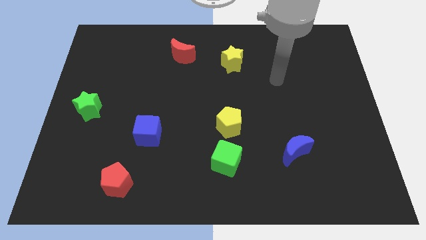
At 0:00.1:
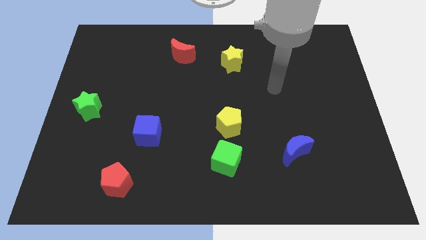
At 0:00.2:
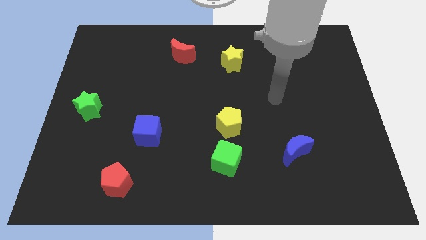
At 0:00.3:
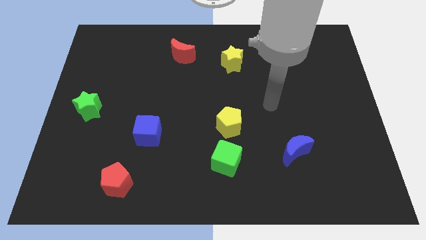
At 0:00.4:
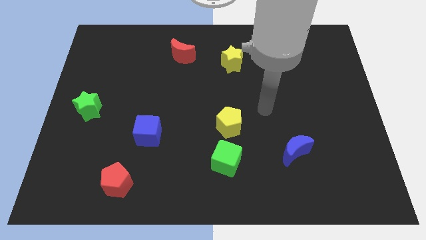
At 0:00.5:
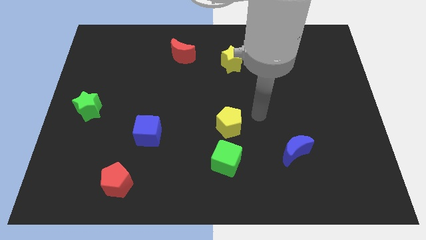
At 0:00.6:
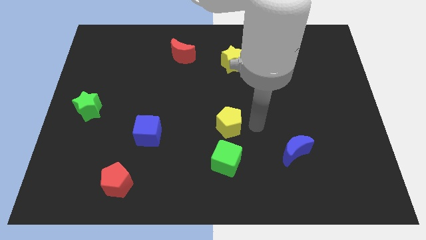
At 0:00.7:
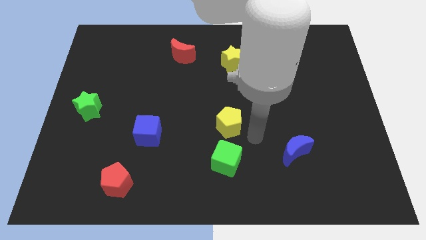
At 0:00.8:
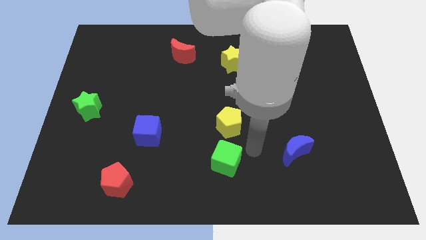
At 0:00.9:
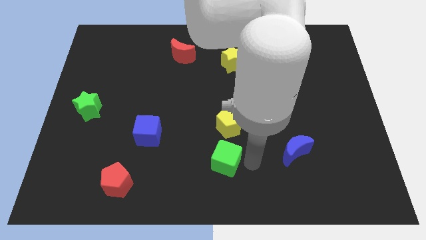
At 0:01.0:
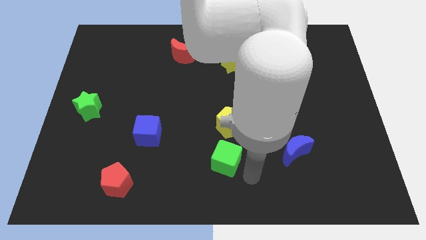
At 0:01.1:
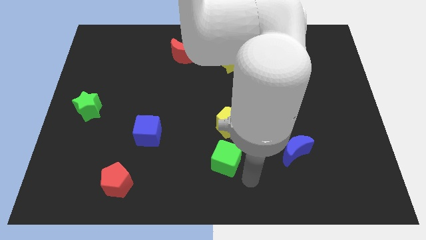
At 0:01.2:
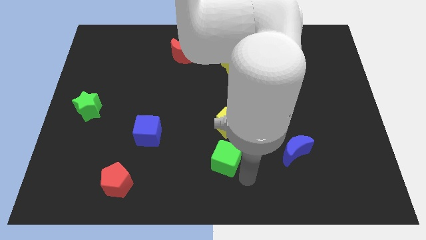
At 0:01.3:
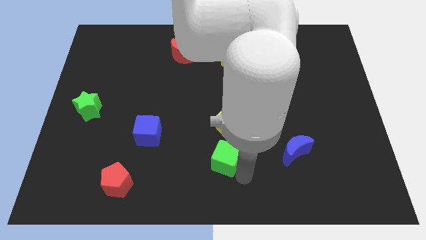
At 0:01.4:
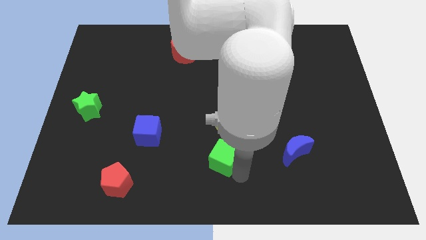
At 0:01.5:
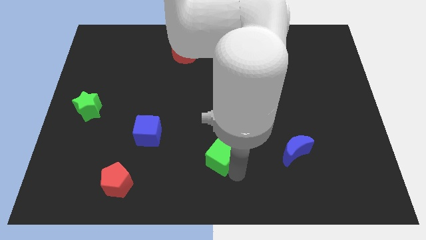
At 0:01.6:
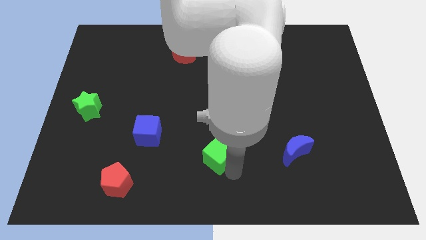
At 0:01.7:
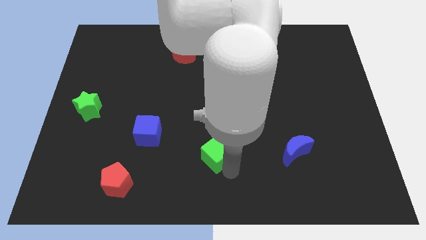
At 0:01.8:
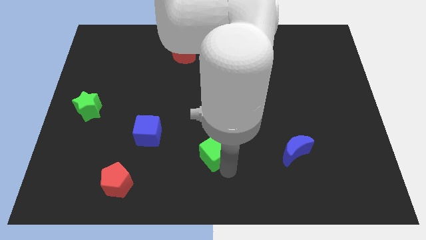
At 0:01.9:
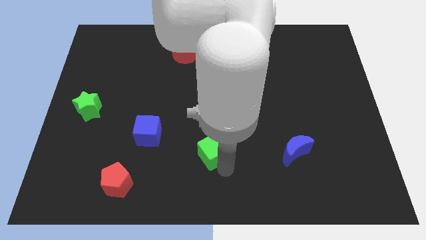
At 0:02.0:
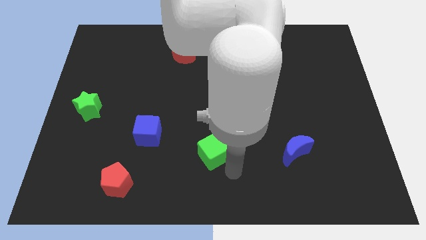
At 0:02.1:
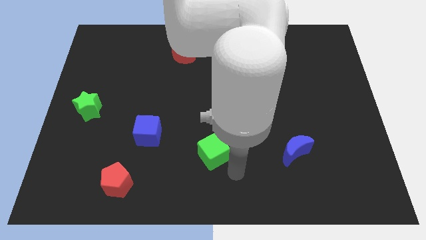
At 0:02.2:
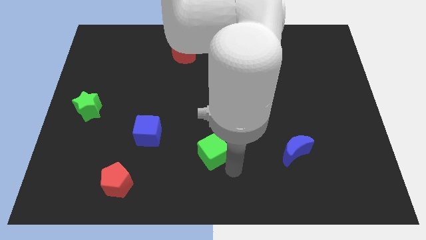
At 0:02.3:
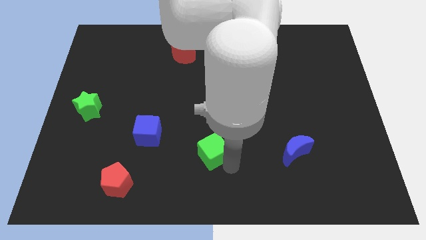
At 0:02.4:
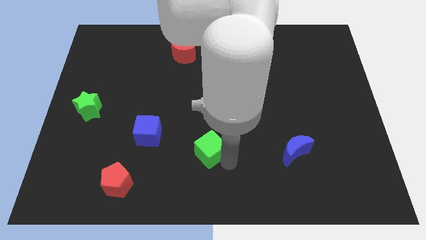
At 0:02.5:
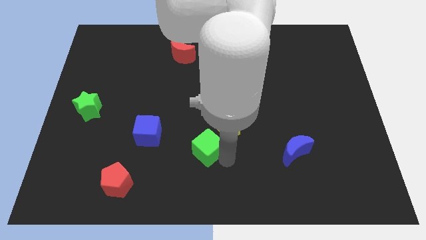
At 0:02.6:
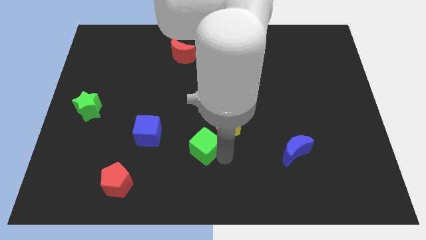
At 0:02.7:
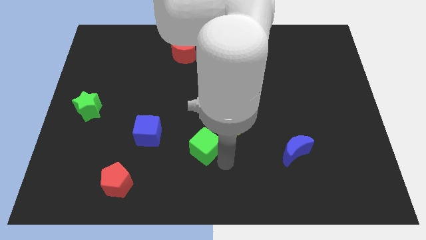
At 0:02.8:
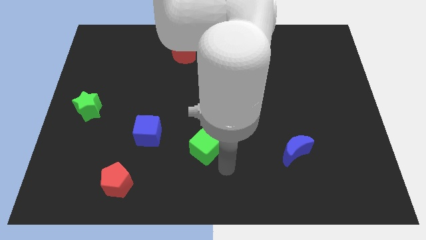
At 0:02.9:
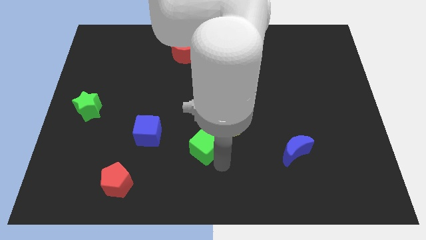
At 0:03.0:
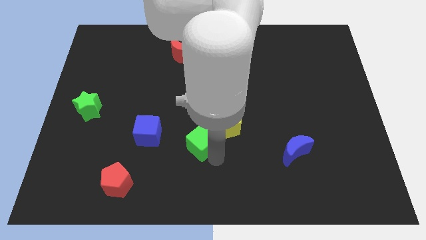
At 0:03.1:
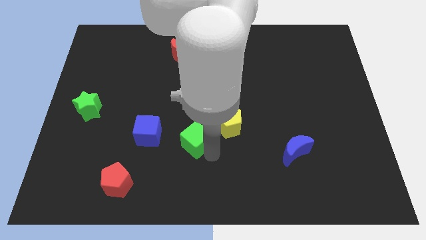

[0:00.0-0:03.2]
push the green cube up and then to the left somewhat

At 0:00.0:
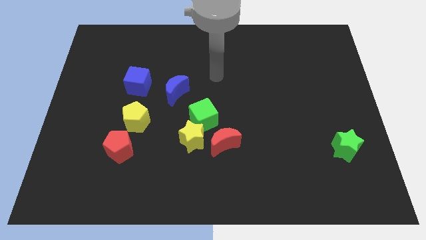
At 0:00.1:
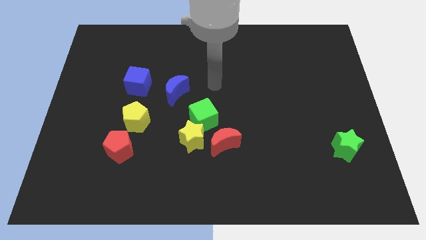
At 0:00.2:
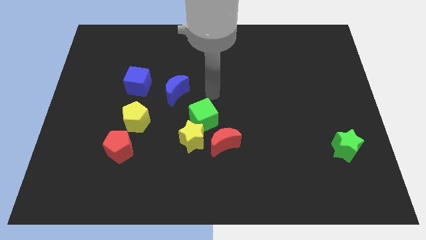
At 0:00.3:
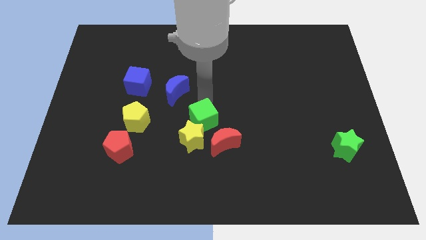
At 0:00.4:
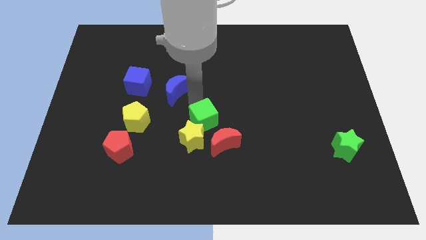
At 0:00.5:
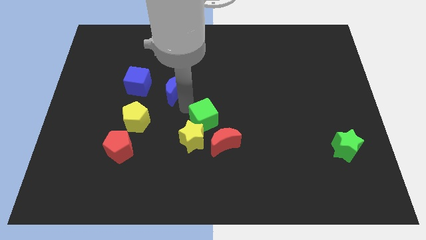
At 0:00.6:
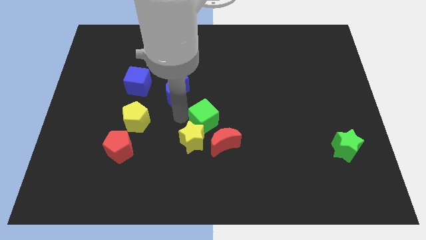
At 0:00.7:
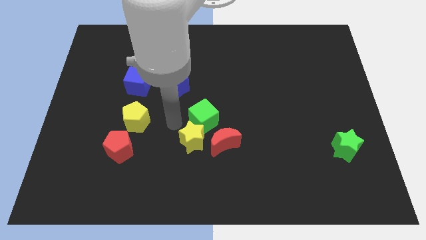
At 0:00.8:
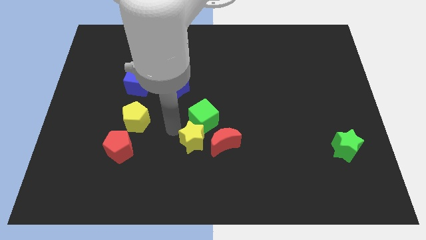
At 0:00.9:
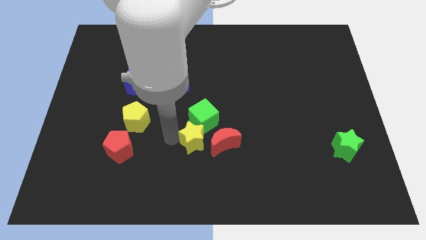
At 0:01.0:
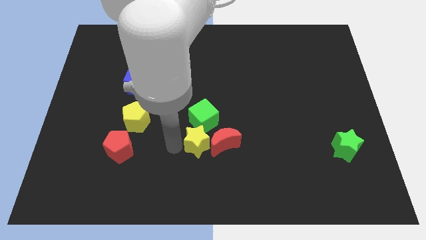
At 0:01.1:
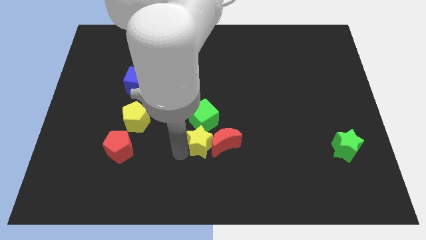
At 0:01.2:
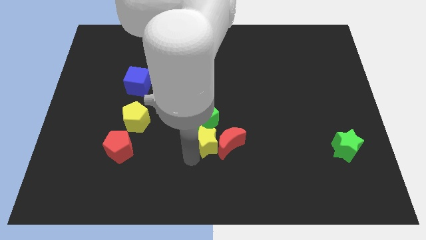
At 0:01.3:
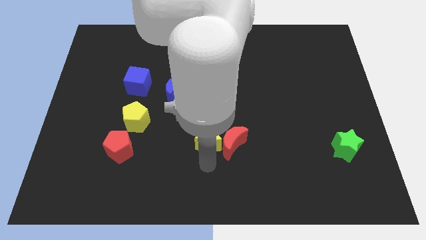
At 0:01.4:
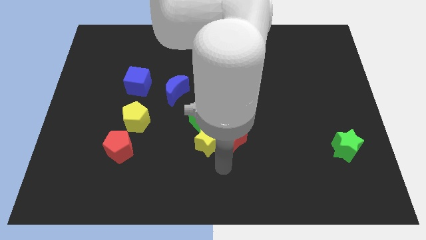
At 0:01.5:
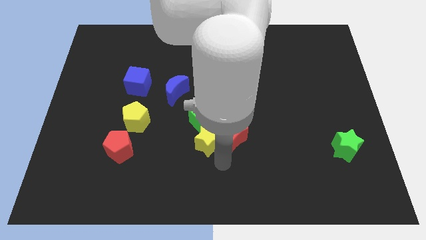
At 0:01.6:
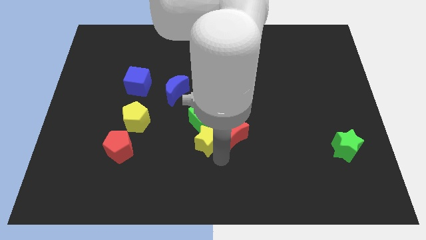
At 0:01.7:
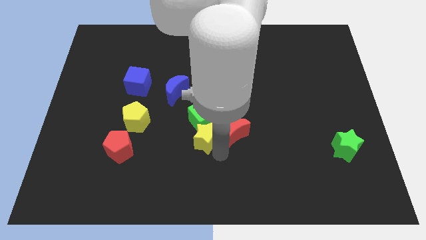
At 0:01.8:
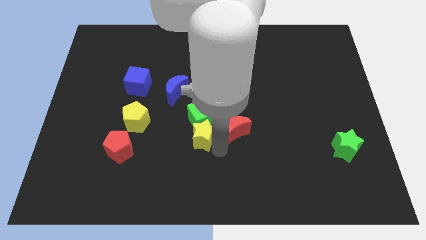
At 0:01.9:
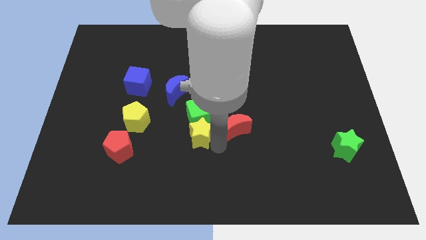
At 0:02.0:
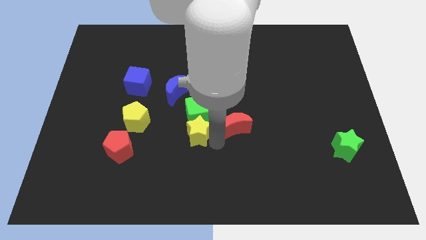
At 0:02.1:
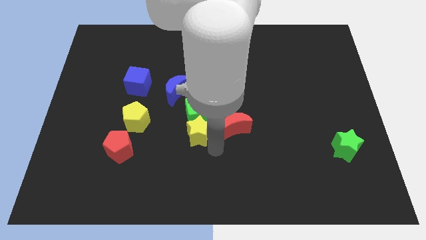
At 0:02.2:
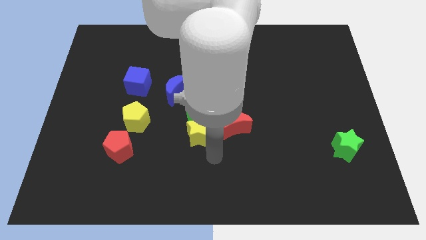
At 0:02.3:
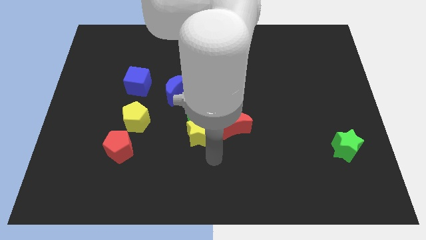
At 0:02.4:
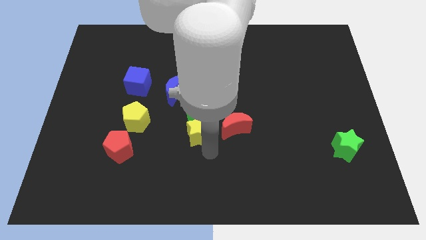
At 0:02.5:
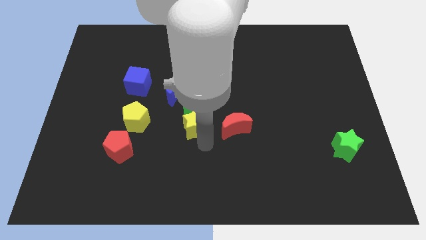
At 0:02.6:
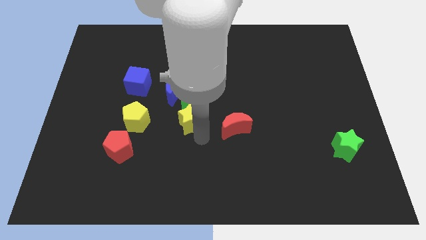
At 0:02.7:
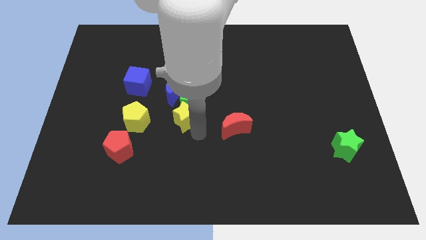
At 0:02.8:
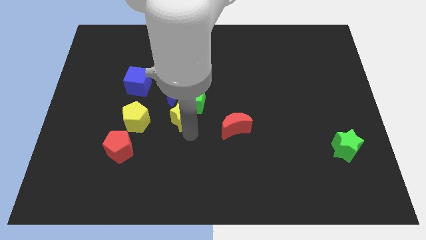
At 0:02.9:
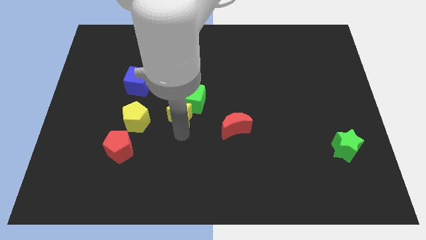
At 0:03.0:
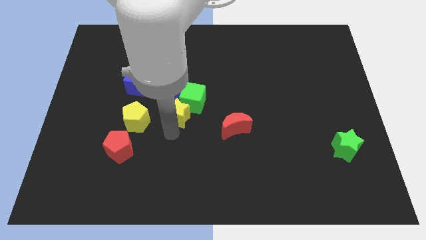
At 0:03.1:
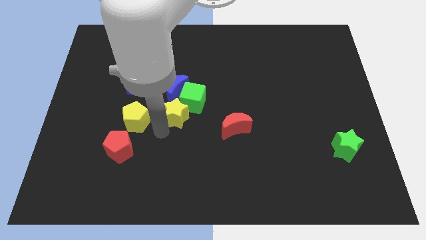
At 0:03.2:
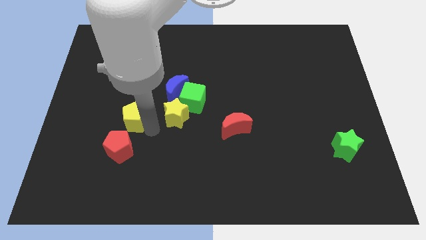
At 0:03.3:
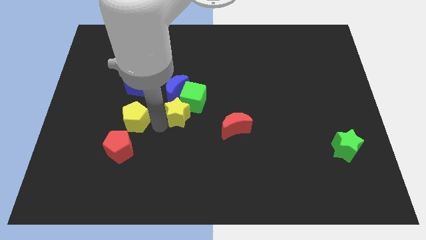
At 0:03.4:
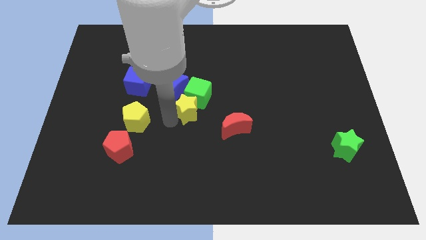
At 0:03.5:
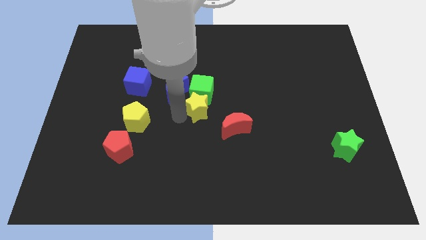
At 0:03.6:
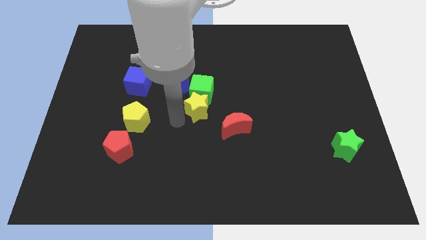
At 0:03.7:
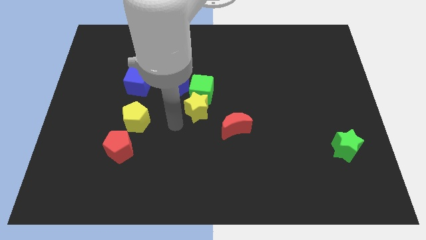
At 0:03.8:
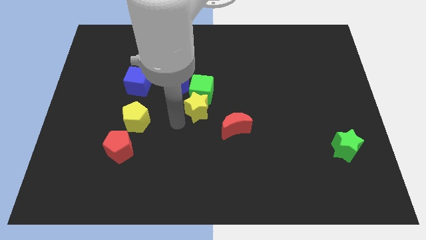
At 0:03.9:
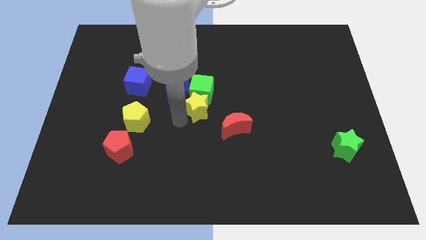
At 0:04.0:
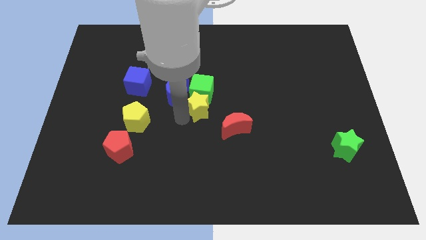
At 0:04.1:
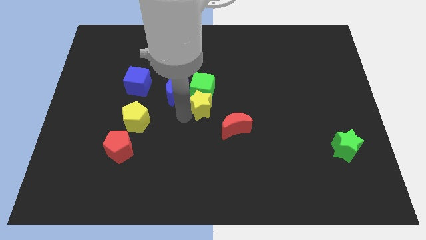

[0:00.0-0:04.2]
move the yellow star a little bit up and to the right diagonally
